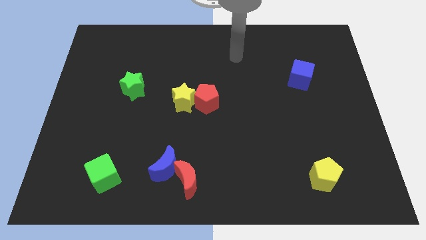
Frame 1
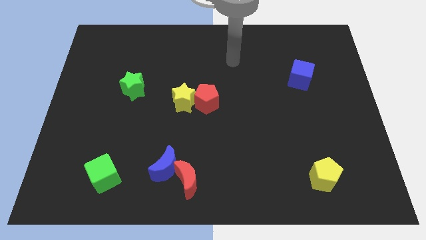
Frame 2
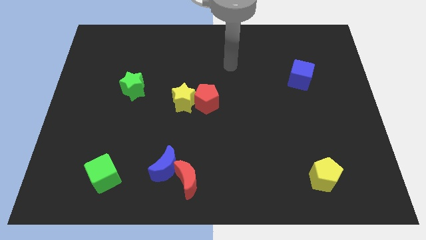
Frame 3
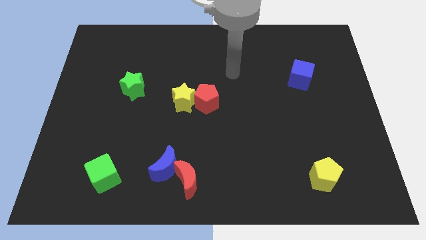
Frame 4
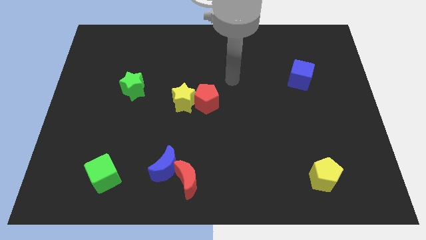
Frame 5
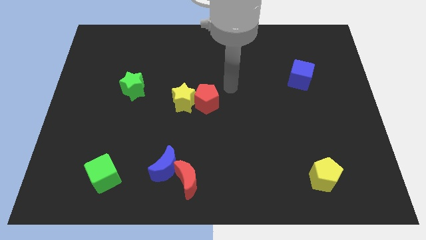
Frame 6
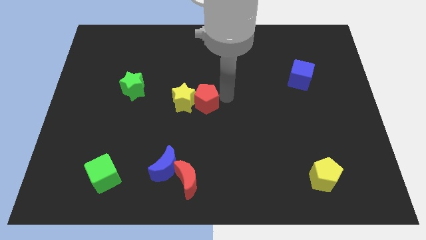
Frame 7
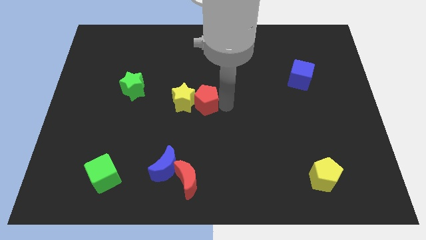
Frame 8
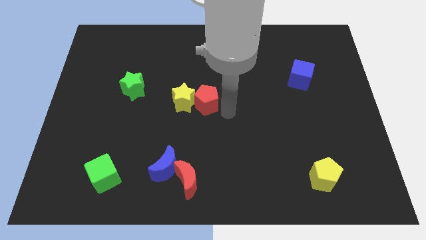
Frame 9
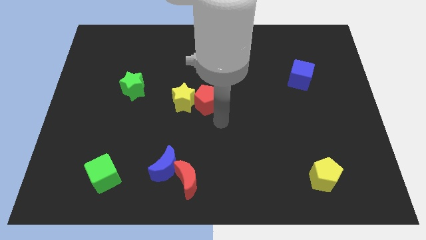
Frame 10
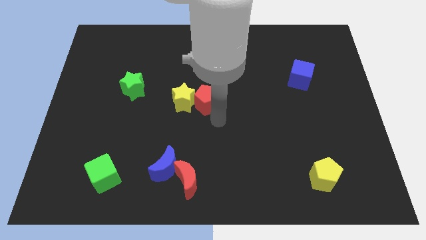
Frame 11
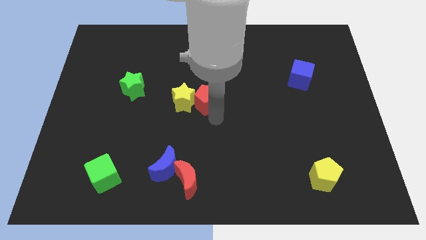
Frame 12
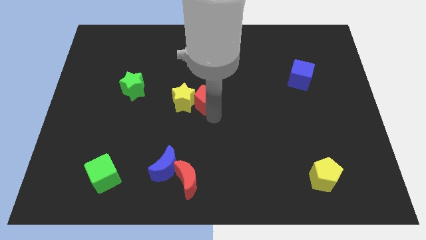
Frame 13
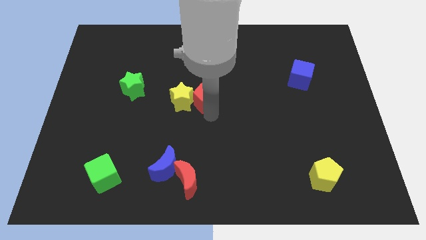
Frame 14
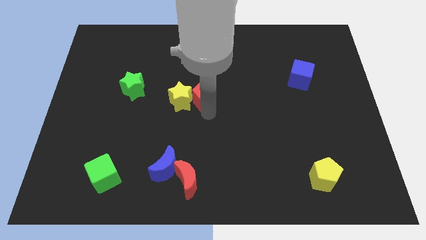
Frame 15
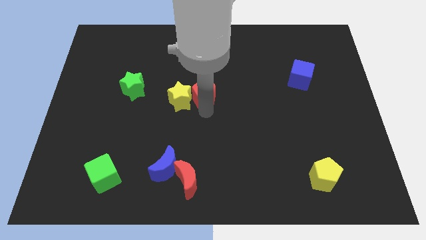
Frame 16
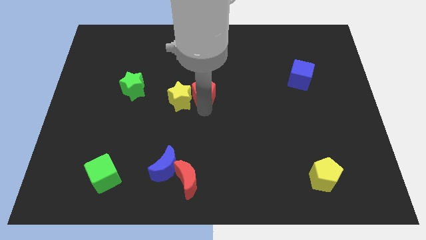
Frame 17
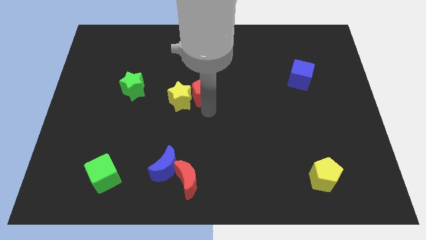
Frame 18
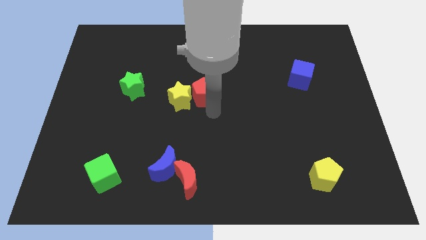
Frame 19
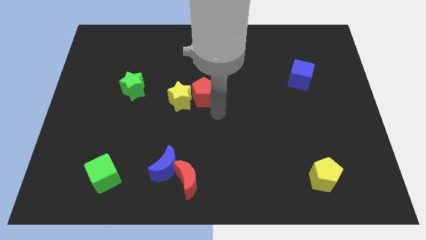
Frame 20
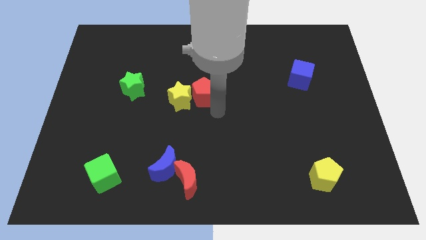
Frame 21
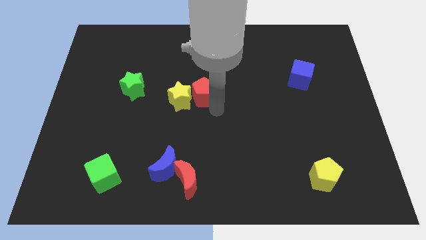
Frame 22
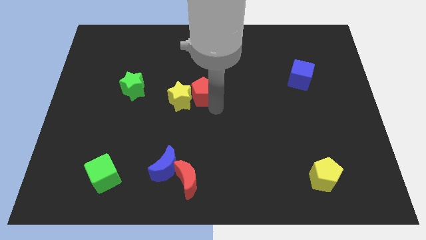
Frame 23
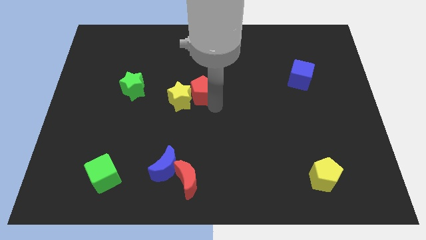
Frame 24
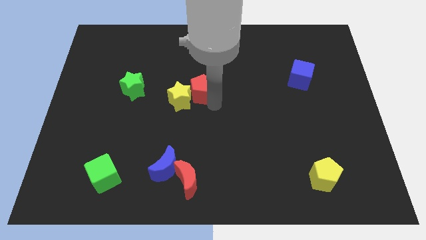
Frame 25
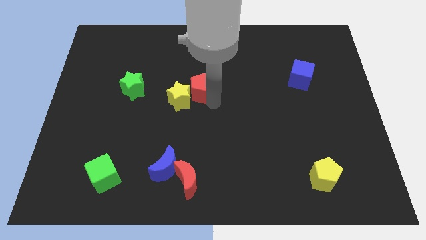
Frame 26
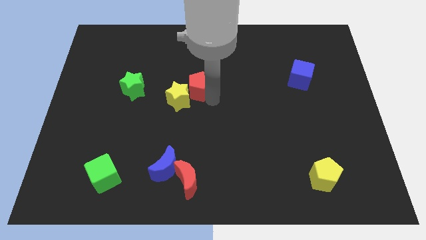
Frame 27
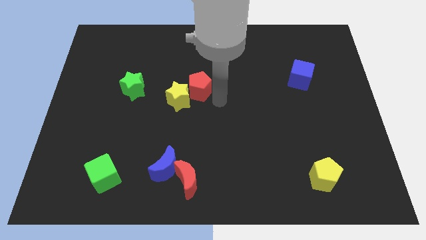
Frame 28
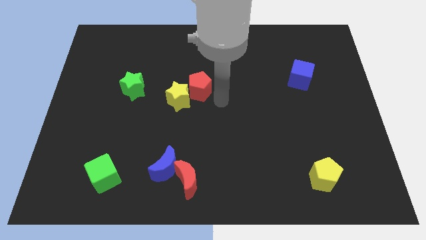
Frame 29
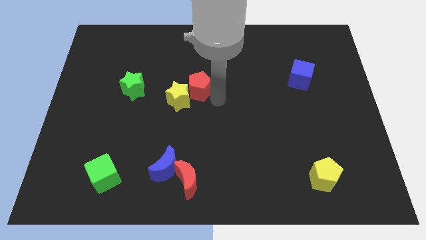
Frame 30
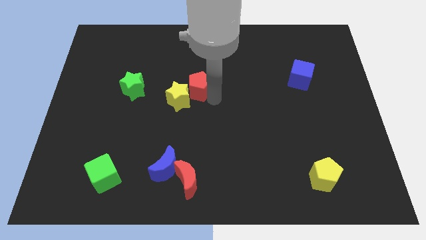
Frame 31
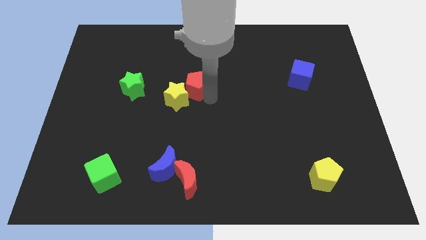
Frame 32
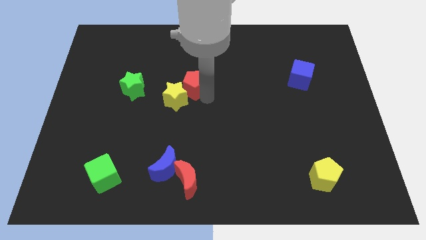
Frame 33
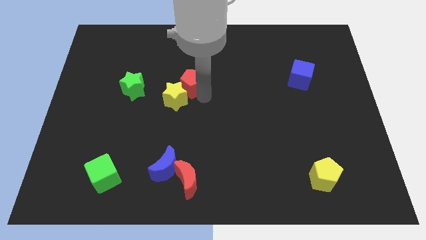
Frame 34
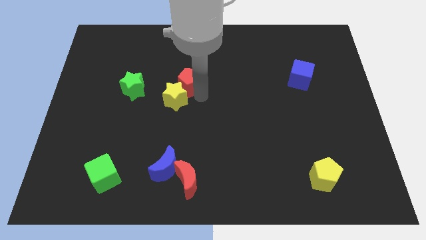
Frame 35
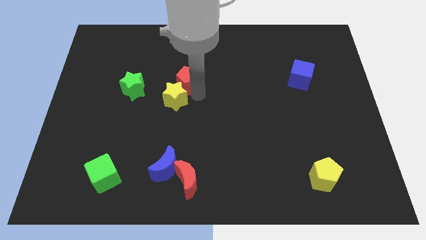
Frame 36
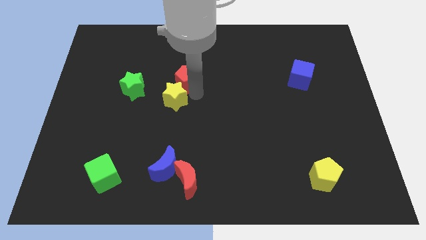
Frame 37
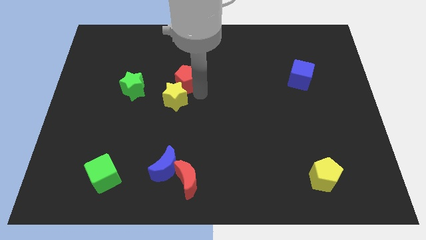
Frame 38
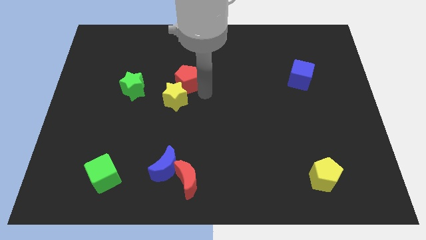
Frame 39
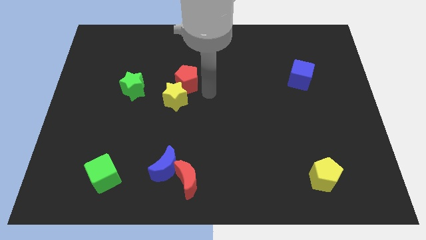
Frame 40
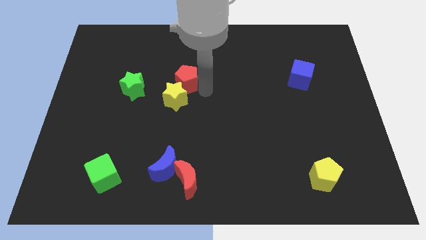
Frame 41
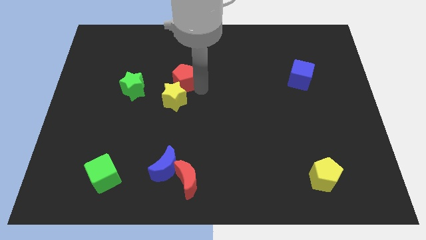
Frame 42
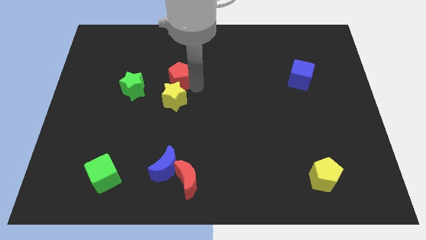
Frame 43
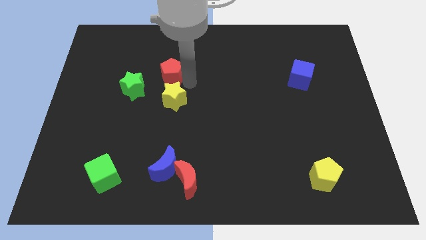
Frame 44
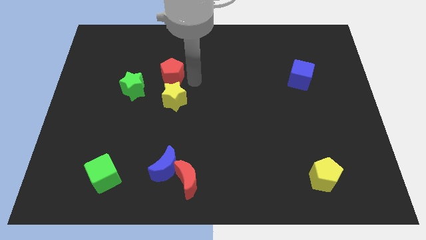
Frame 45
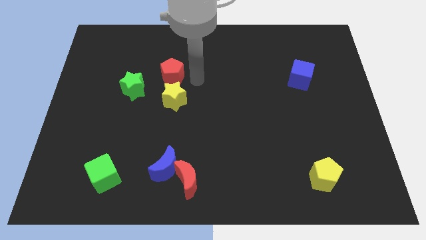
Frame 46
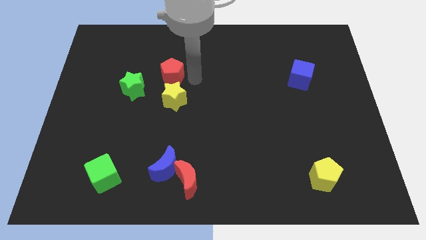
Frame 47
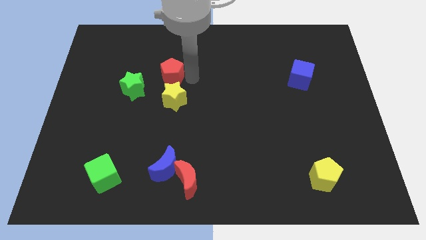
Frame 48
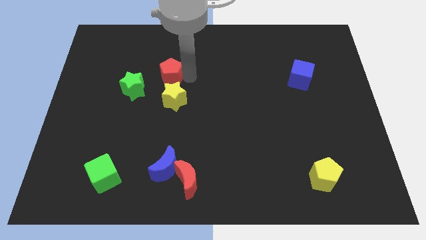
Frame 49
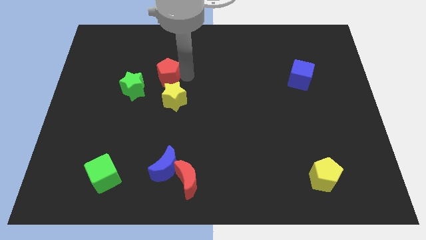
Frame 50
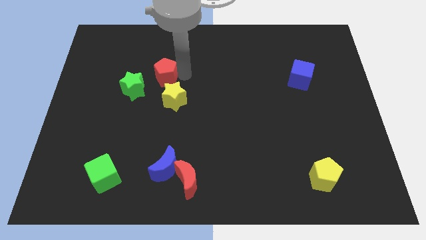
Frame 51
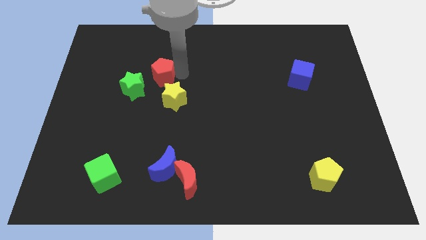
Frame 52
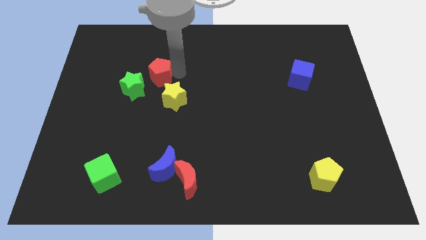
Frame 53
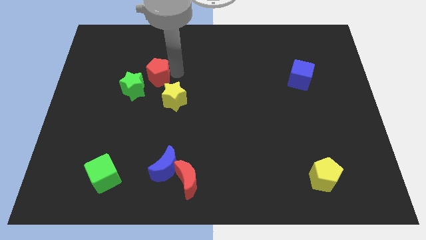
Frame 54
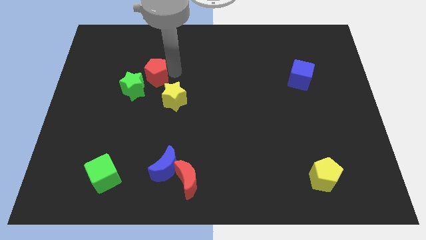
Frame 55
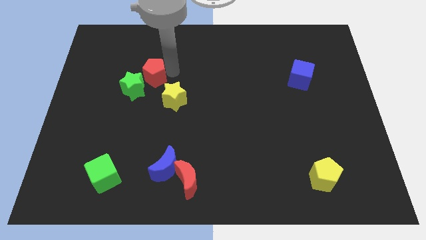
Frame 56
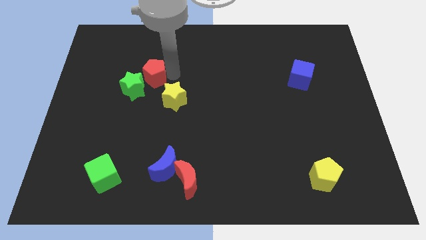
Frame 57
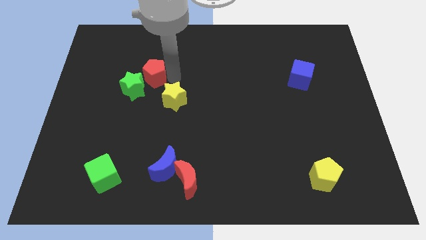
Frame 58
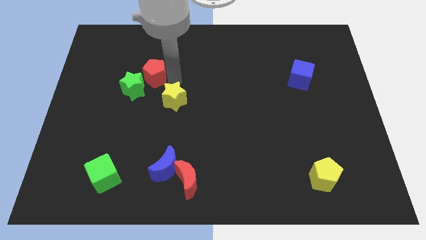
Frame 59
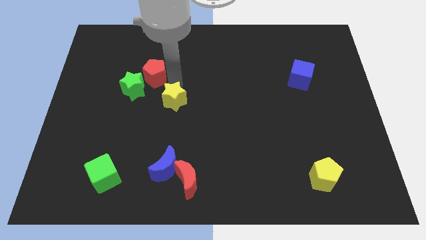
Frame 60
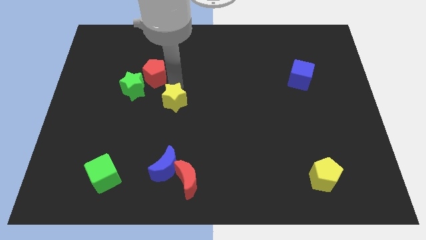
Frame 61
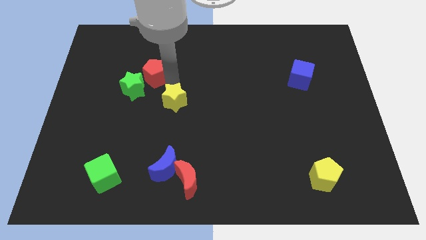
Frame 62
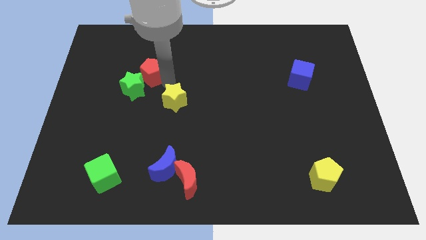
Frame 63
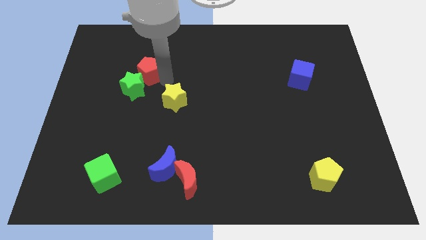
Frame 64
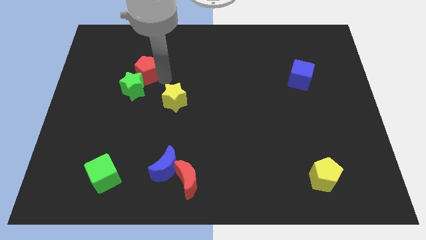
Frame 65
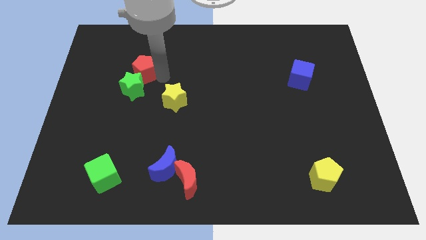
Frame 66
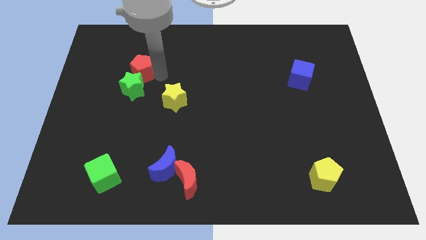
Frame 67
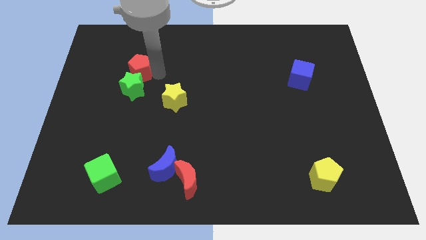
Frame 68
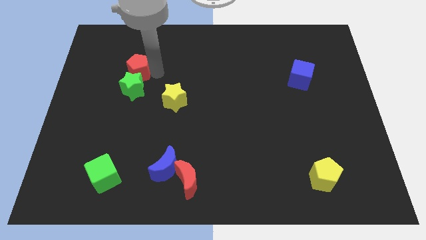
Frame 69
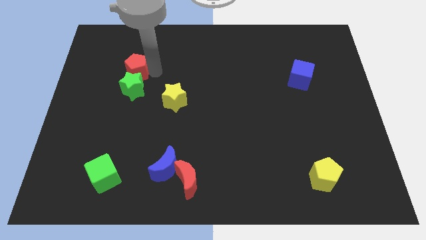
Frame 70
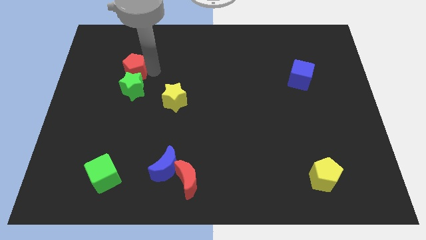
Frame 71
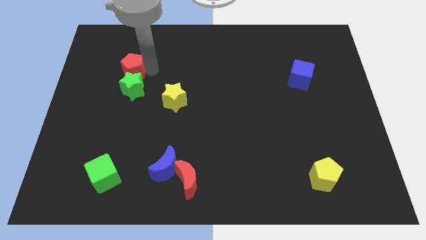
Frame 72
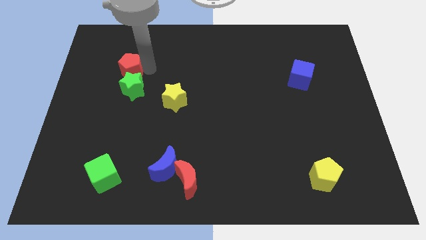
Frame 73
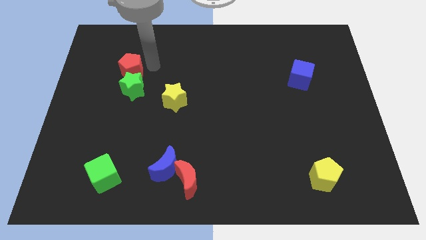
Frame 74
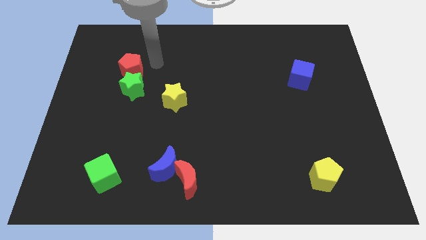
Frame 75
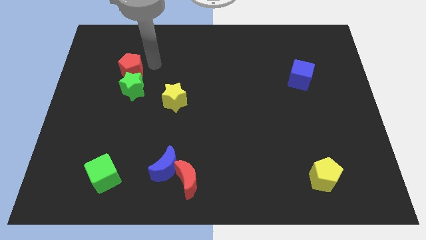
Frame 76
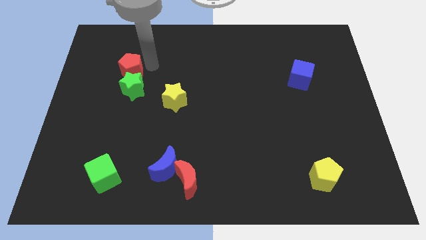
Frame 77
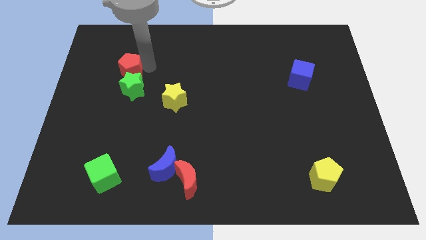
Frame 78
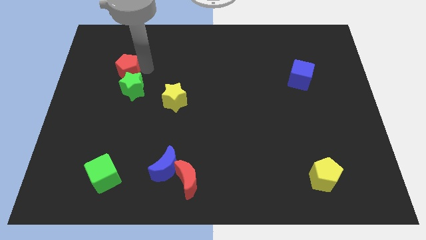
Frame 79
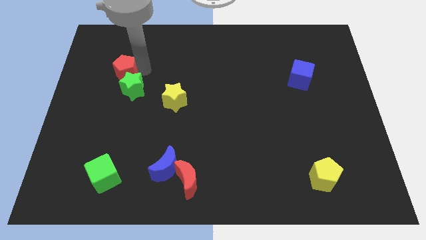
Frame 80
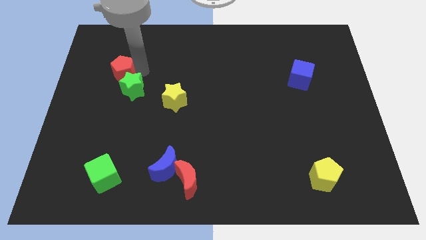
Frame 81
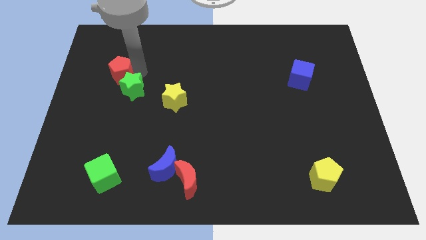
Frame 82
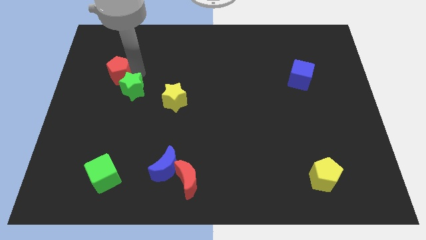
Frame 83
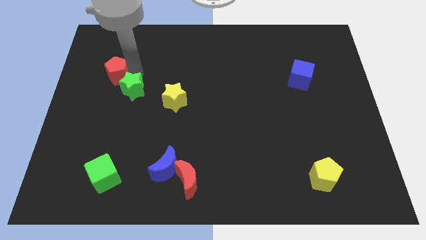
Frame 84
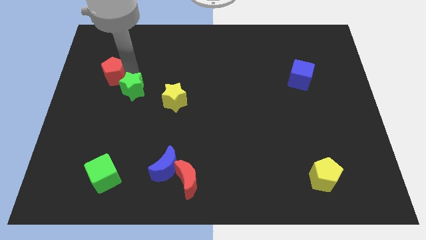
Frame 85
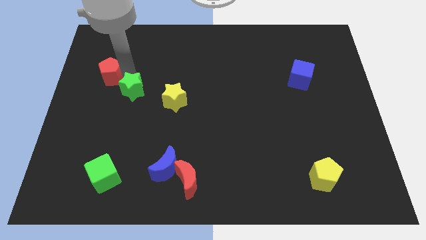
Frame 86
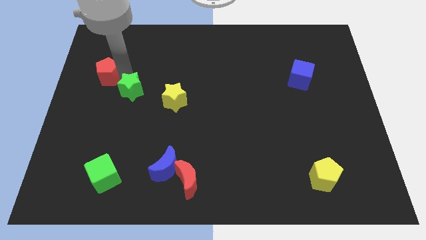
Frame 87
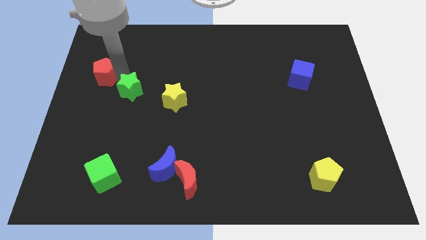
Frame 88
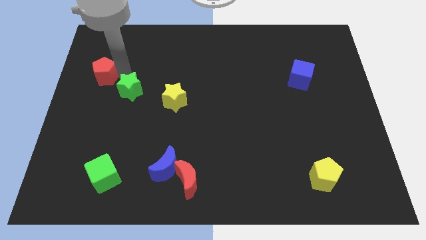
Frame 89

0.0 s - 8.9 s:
put the red pentagon to the left side
